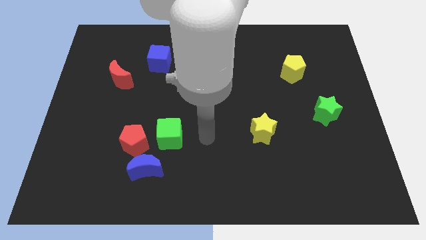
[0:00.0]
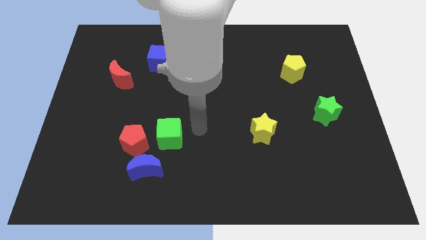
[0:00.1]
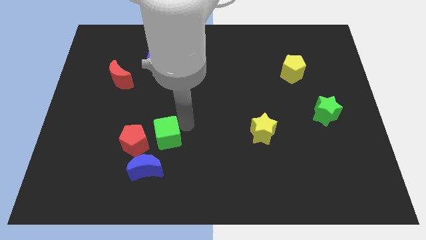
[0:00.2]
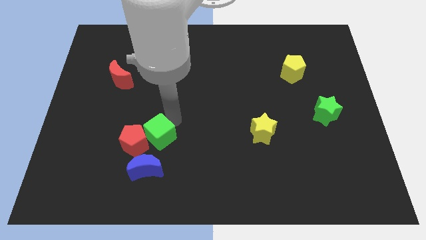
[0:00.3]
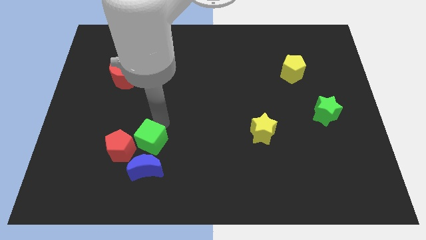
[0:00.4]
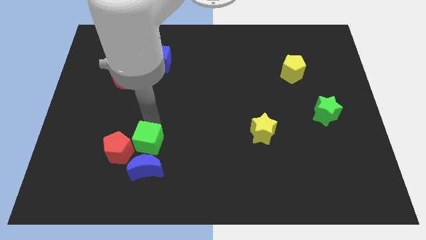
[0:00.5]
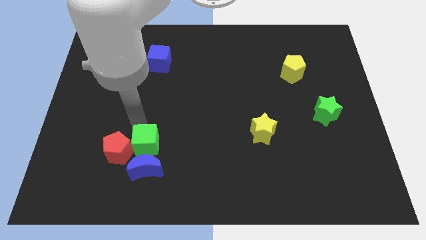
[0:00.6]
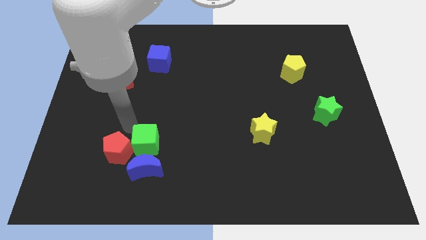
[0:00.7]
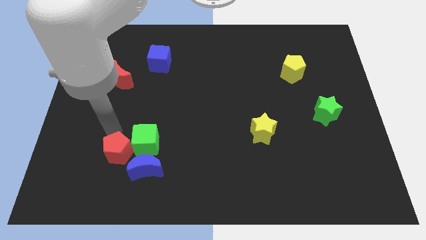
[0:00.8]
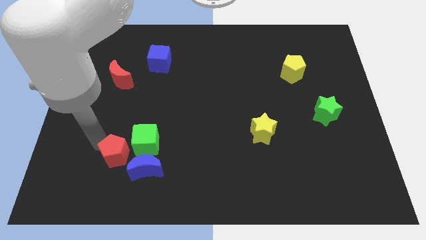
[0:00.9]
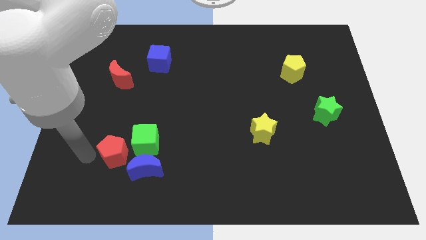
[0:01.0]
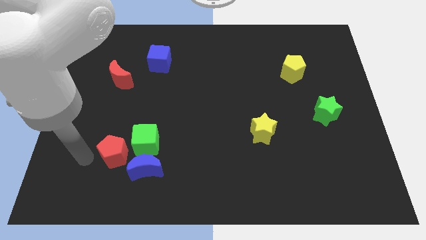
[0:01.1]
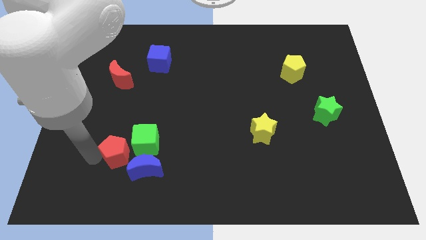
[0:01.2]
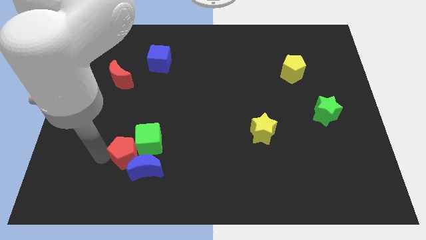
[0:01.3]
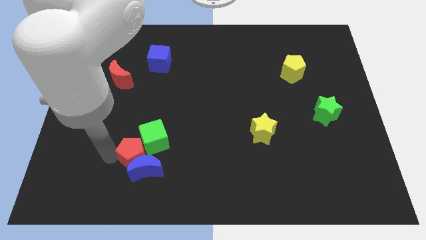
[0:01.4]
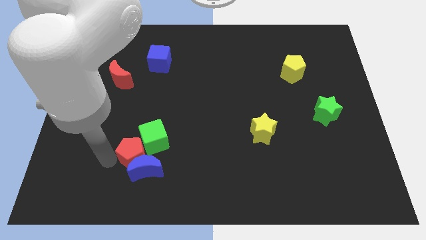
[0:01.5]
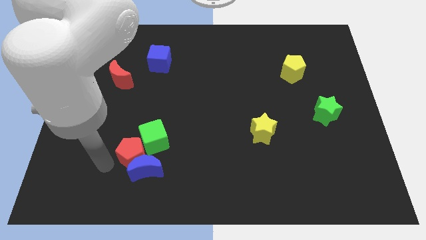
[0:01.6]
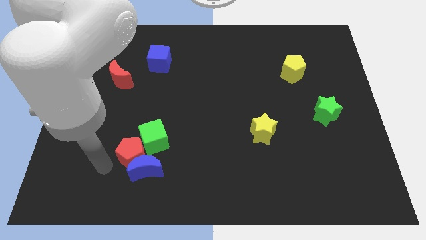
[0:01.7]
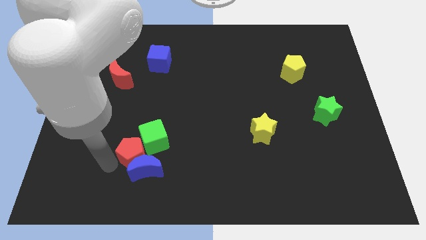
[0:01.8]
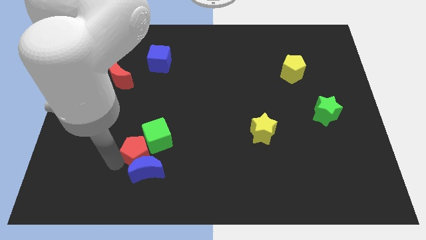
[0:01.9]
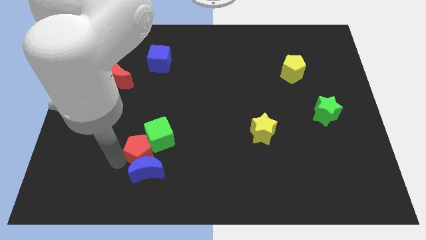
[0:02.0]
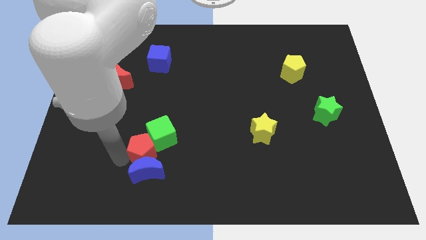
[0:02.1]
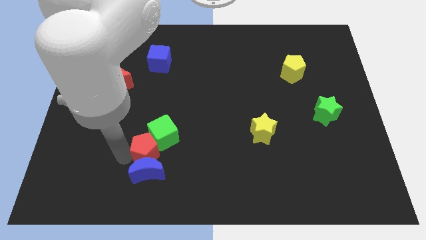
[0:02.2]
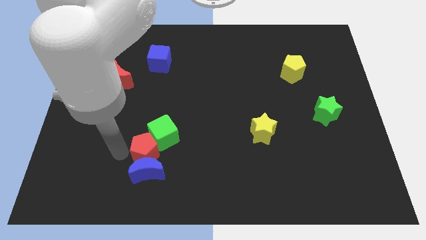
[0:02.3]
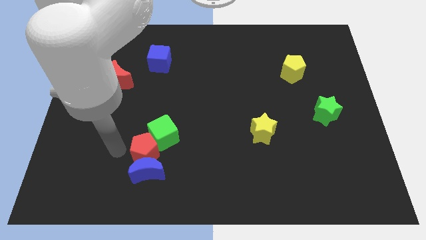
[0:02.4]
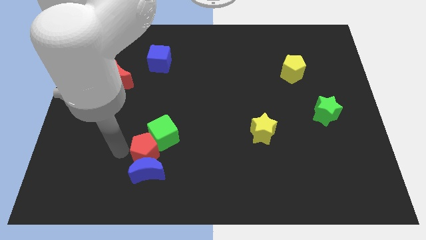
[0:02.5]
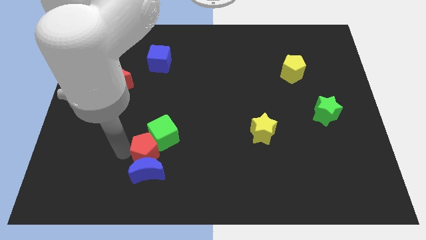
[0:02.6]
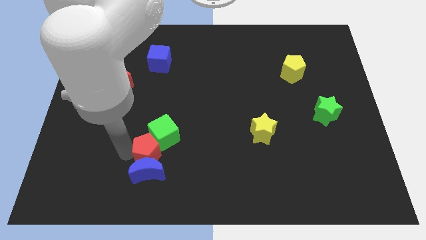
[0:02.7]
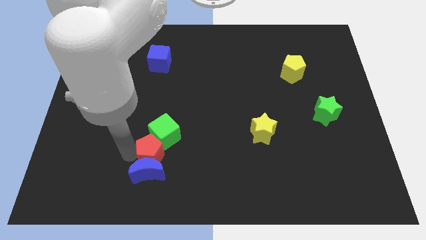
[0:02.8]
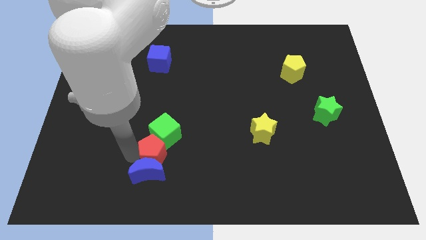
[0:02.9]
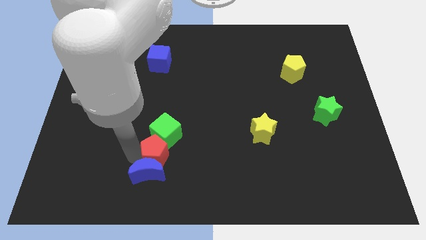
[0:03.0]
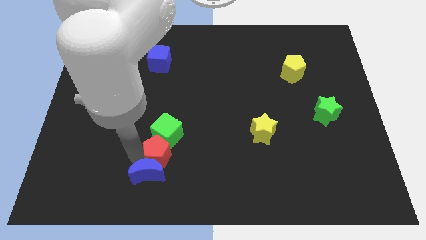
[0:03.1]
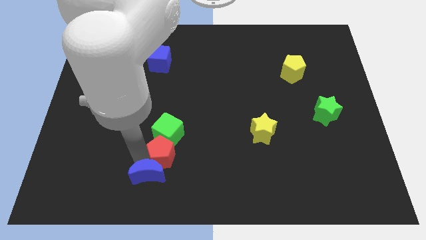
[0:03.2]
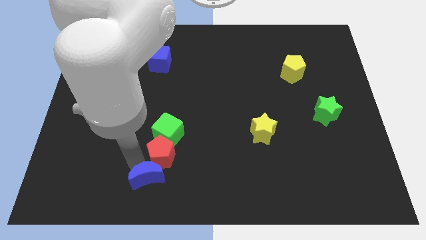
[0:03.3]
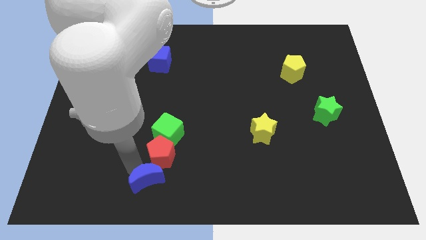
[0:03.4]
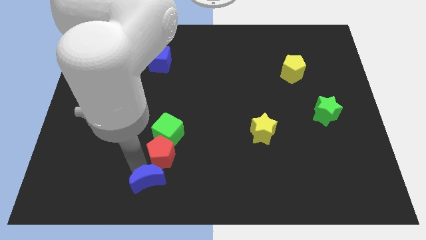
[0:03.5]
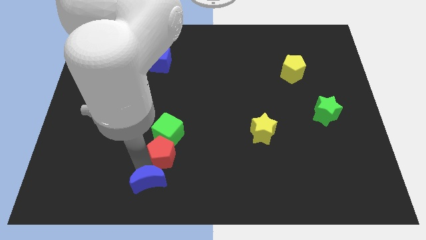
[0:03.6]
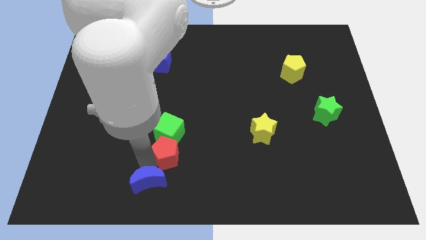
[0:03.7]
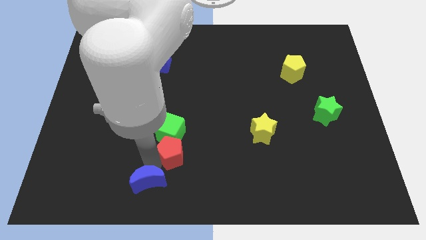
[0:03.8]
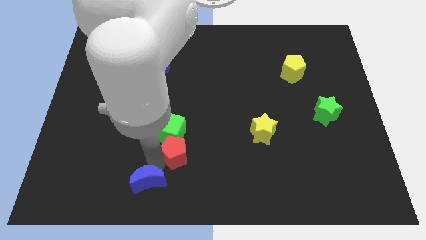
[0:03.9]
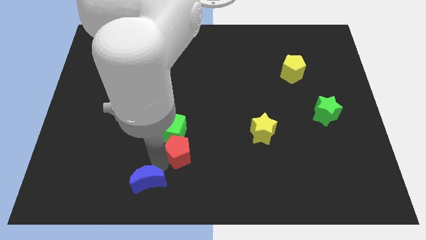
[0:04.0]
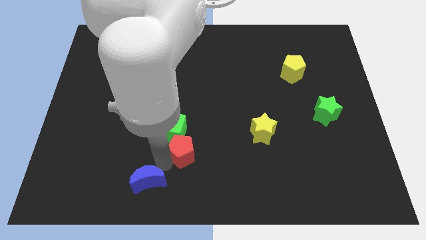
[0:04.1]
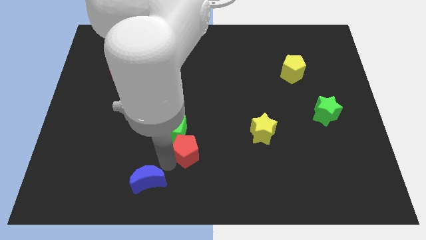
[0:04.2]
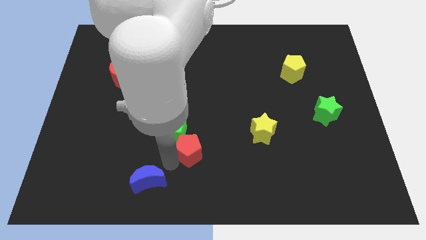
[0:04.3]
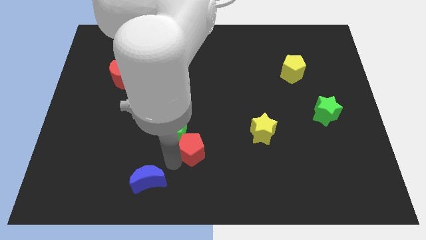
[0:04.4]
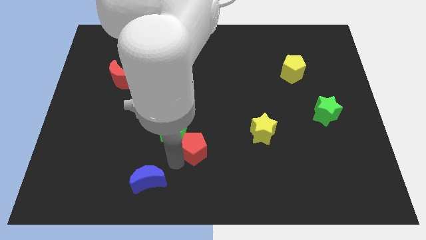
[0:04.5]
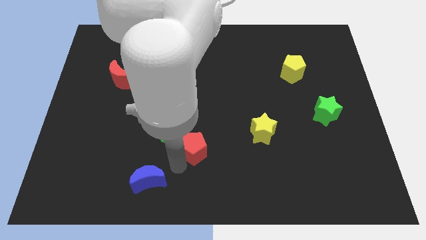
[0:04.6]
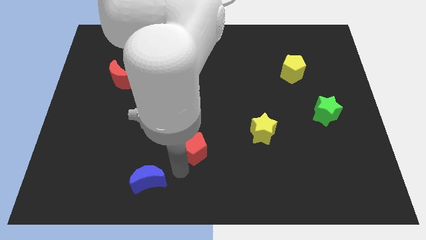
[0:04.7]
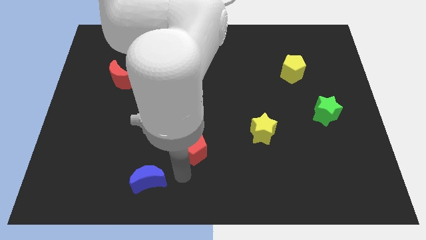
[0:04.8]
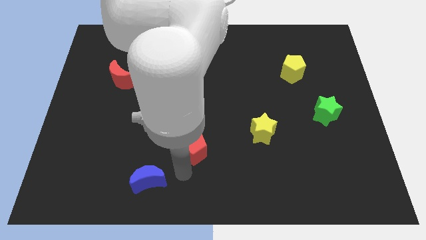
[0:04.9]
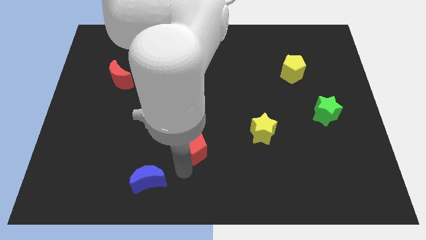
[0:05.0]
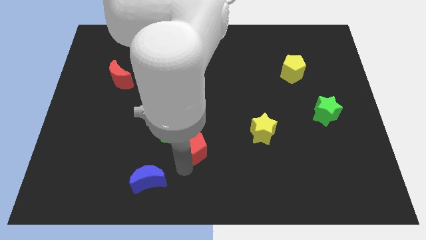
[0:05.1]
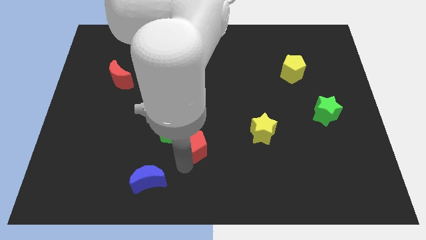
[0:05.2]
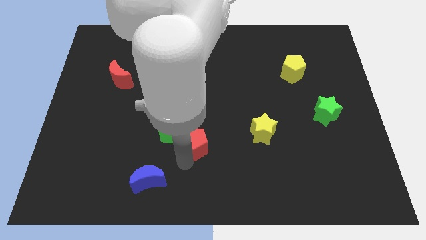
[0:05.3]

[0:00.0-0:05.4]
move the red pentagon just left of the yellow star

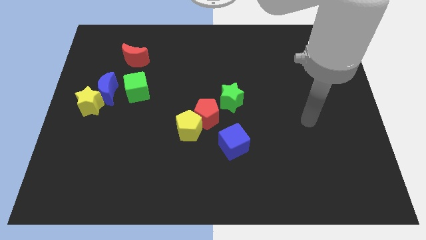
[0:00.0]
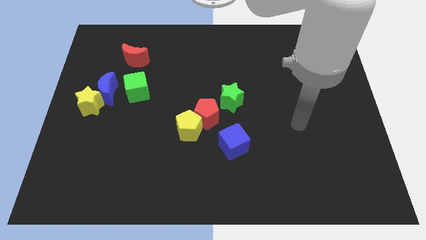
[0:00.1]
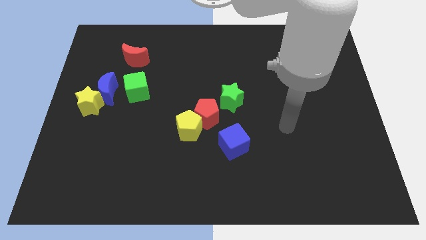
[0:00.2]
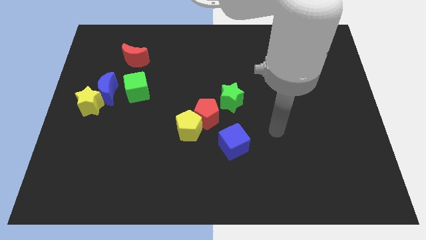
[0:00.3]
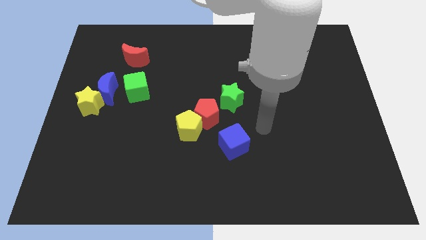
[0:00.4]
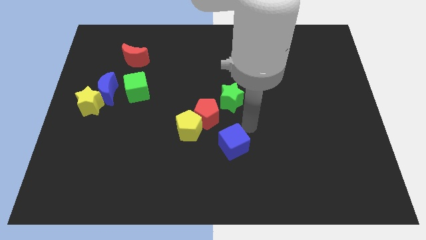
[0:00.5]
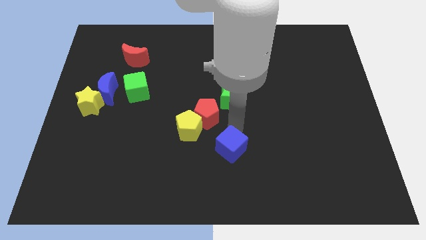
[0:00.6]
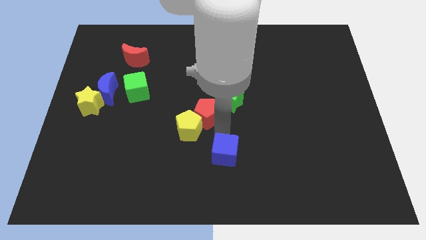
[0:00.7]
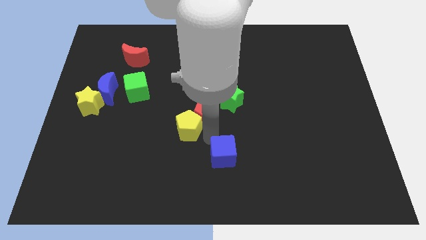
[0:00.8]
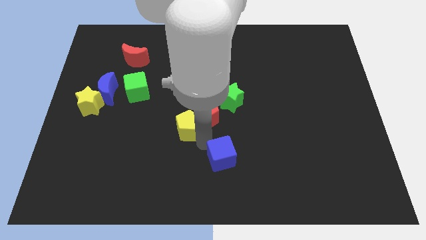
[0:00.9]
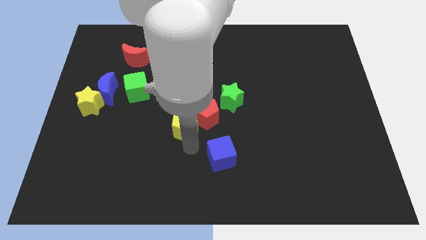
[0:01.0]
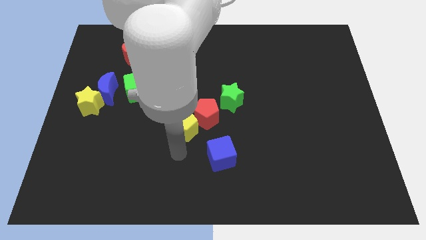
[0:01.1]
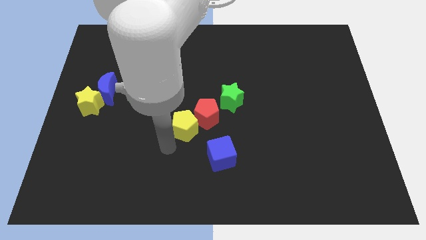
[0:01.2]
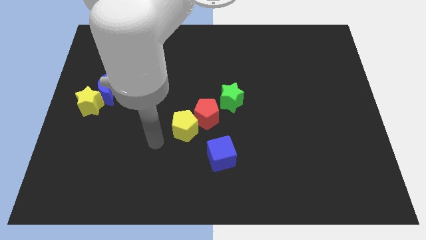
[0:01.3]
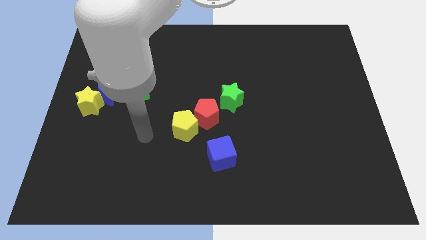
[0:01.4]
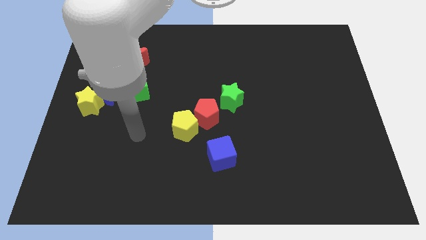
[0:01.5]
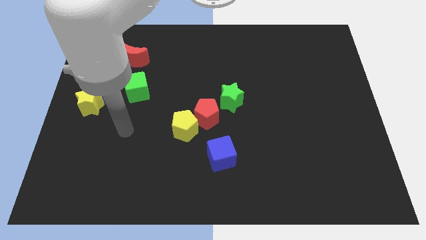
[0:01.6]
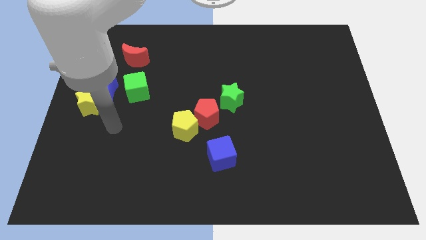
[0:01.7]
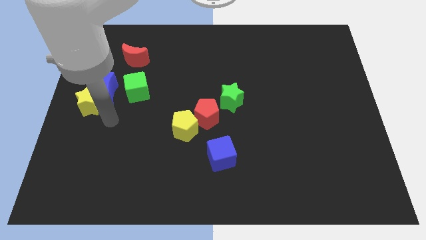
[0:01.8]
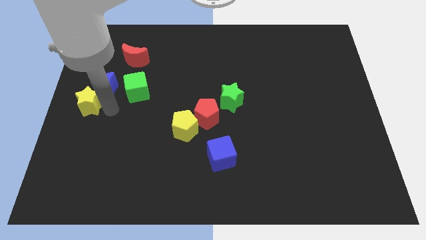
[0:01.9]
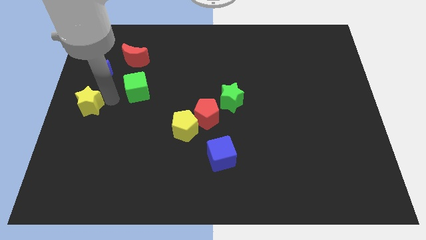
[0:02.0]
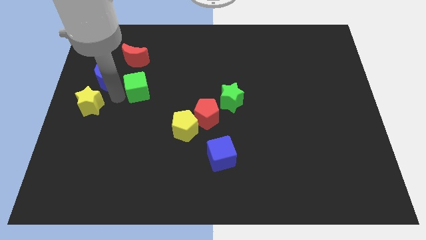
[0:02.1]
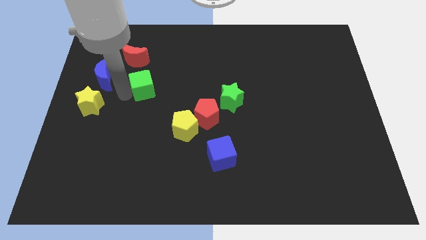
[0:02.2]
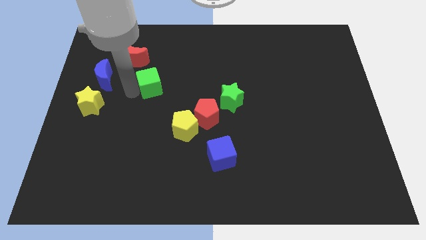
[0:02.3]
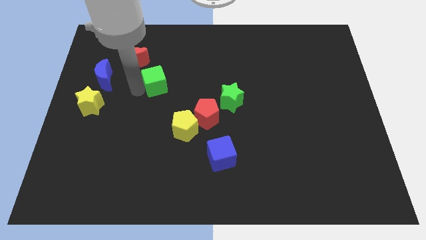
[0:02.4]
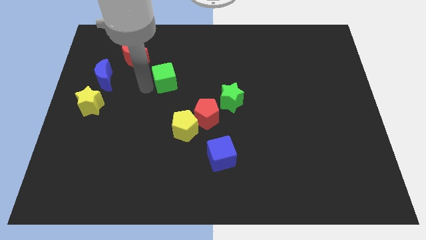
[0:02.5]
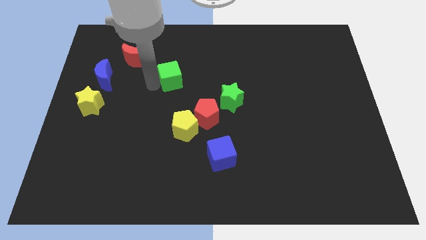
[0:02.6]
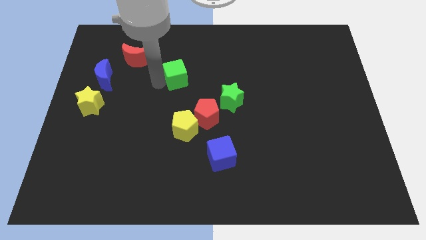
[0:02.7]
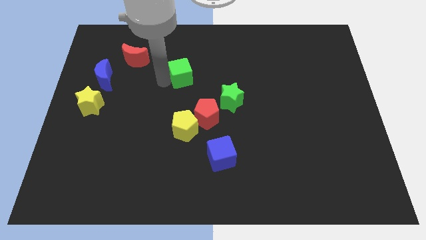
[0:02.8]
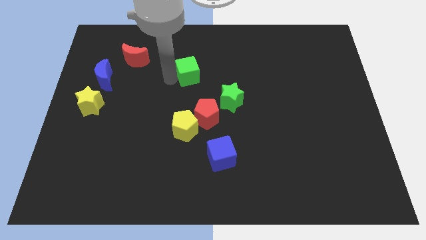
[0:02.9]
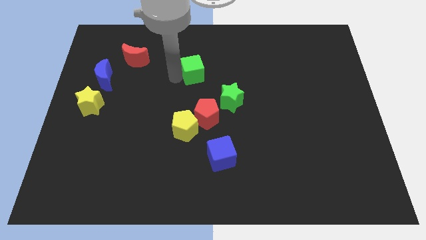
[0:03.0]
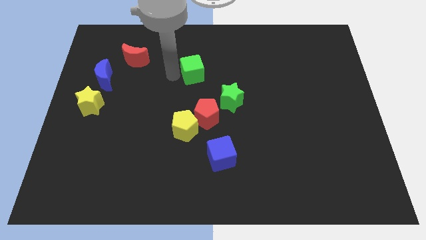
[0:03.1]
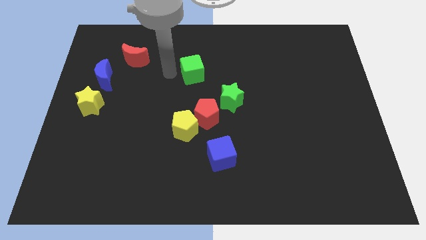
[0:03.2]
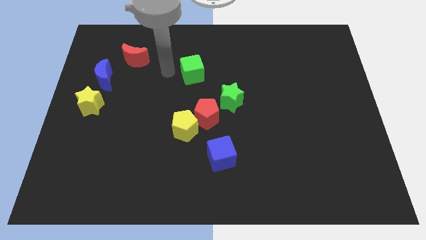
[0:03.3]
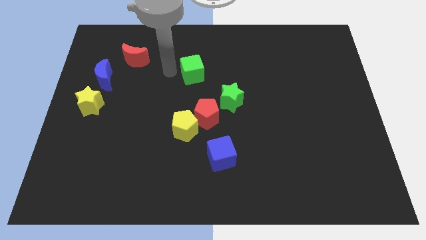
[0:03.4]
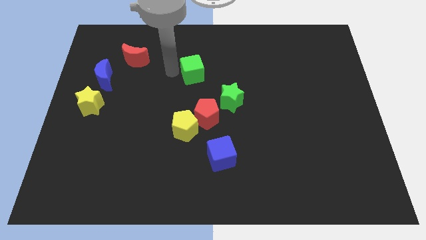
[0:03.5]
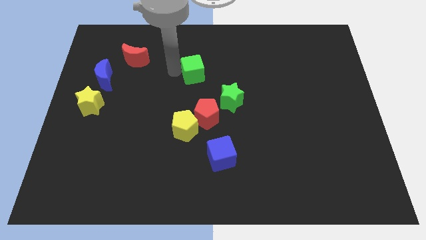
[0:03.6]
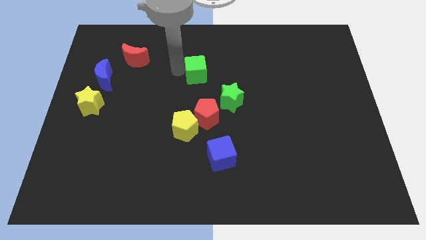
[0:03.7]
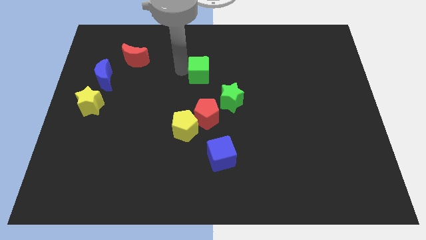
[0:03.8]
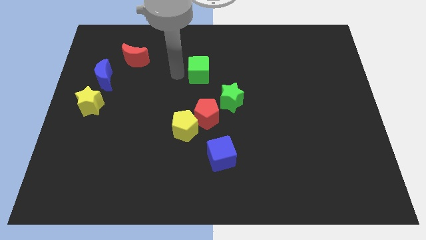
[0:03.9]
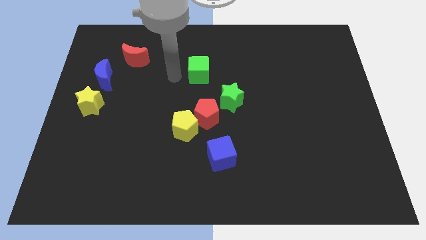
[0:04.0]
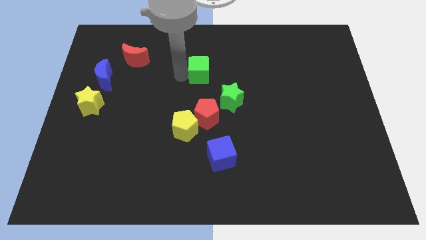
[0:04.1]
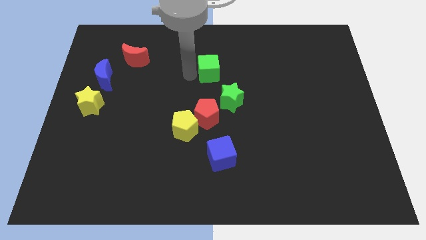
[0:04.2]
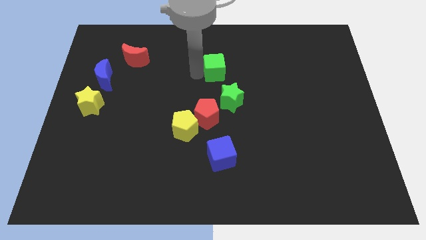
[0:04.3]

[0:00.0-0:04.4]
push the green cube to the top of the green star
